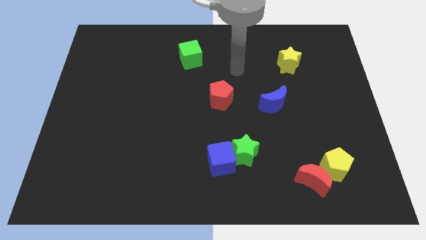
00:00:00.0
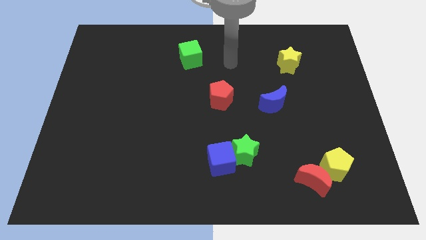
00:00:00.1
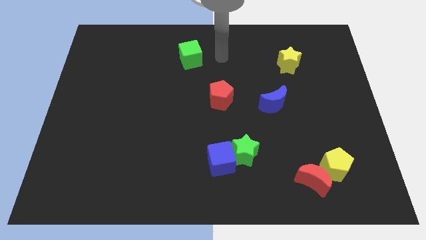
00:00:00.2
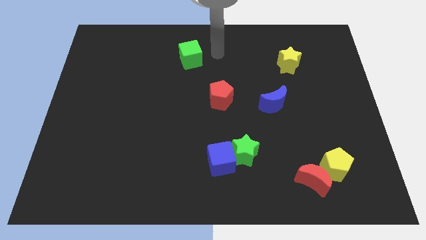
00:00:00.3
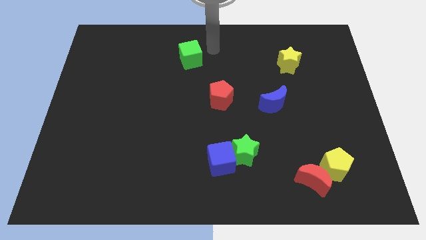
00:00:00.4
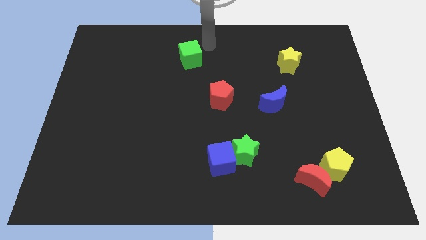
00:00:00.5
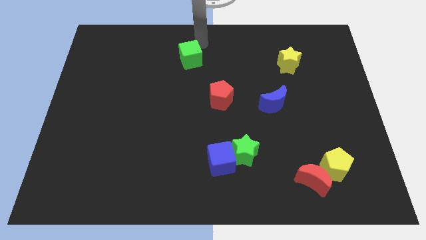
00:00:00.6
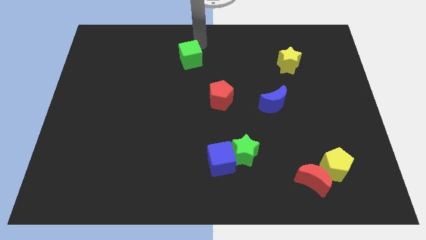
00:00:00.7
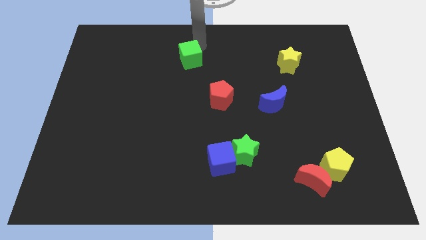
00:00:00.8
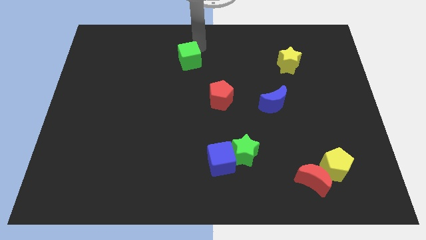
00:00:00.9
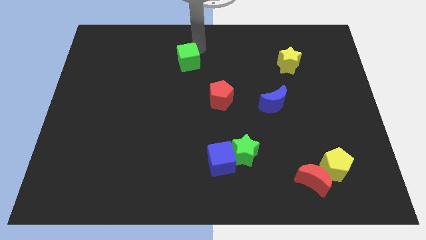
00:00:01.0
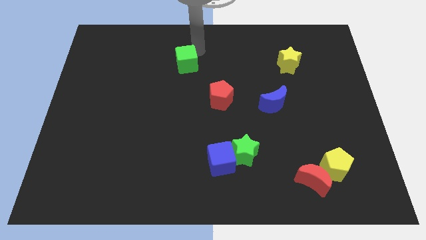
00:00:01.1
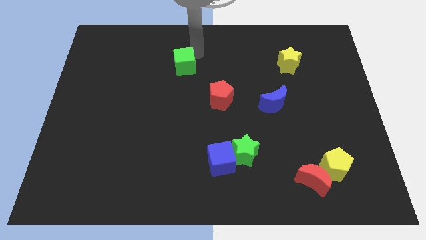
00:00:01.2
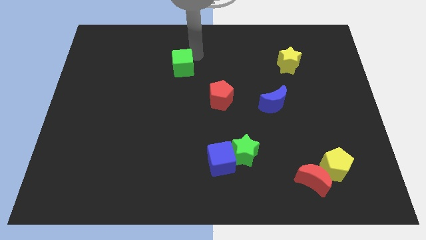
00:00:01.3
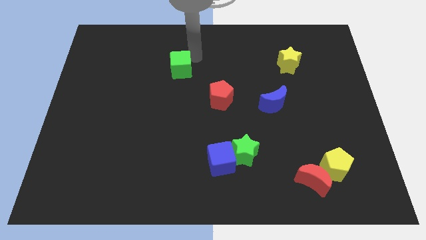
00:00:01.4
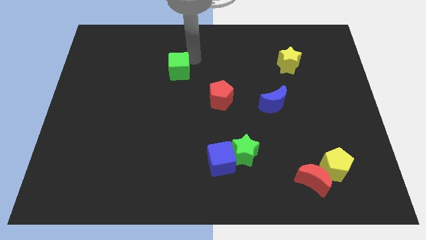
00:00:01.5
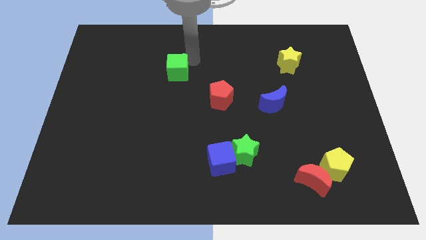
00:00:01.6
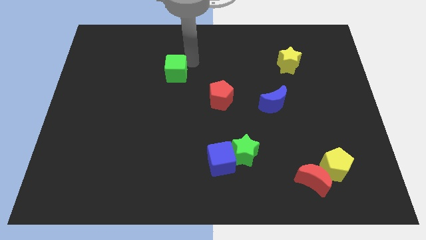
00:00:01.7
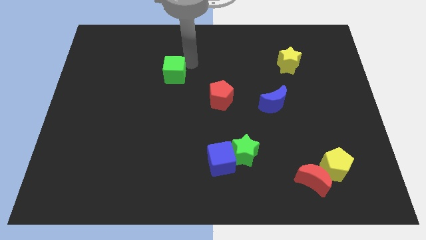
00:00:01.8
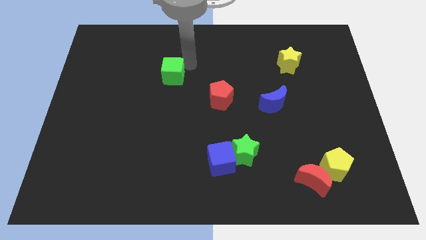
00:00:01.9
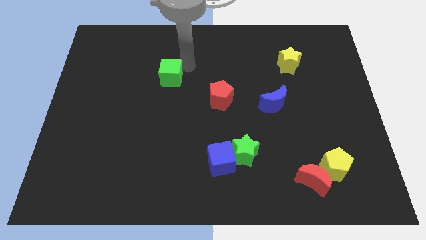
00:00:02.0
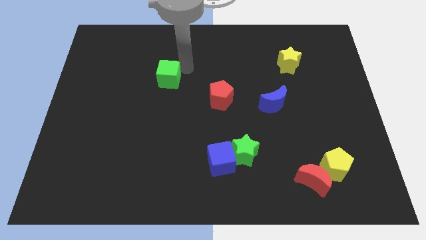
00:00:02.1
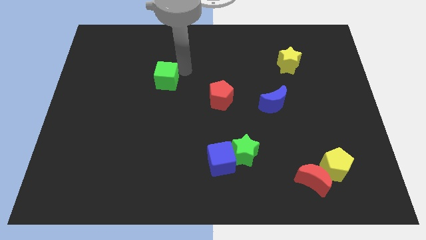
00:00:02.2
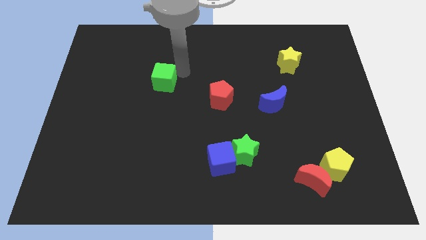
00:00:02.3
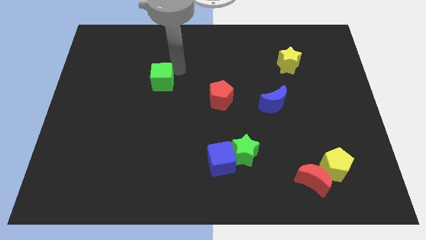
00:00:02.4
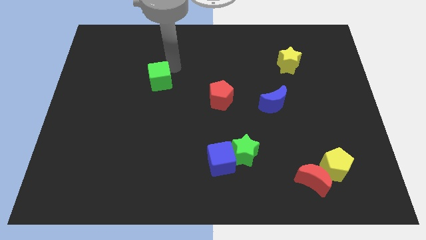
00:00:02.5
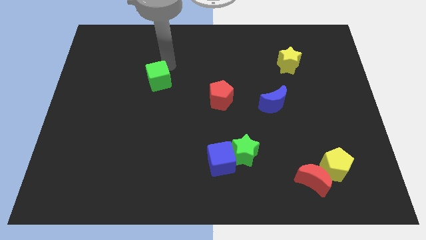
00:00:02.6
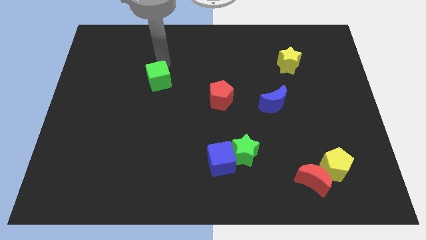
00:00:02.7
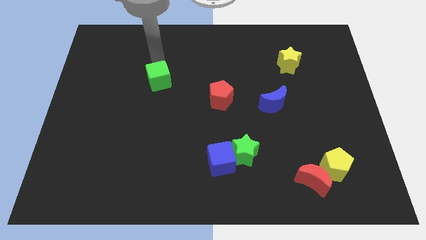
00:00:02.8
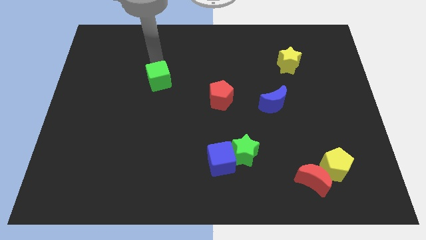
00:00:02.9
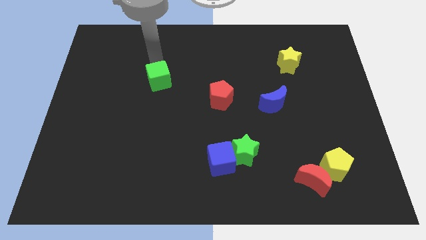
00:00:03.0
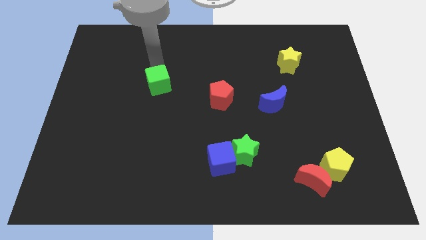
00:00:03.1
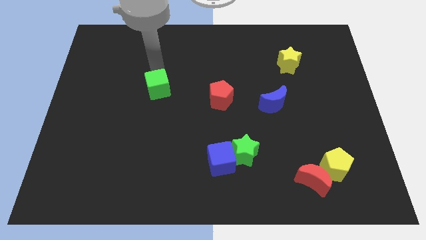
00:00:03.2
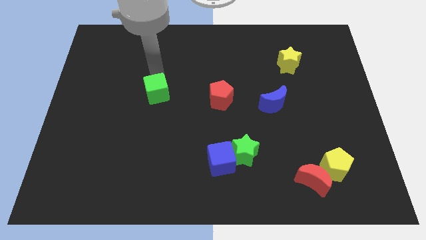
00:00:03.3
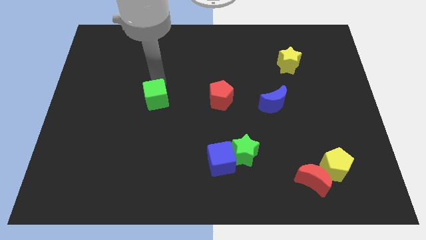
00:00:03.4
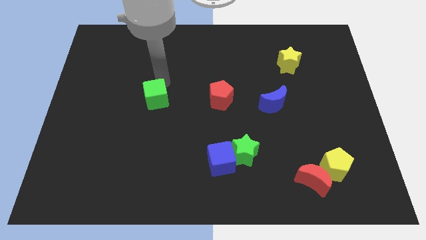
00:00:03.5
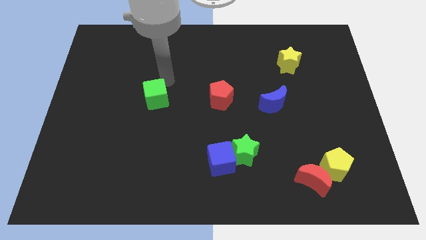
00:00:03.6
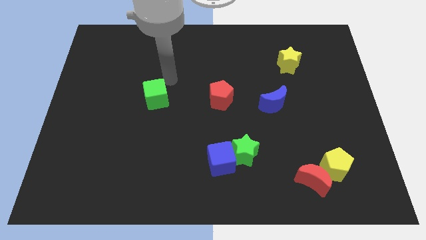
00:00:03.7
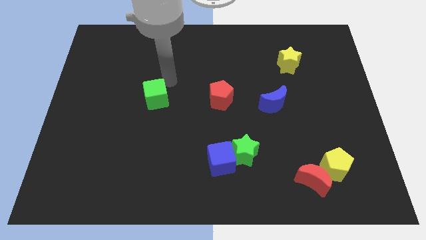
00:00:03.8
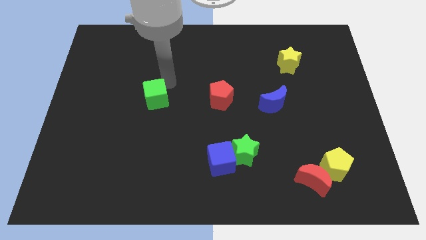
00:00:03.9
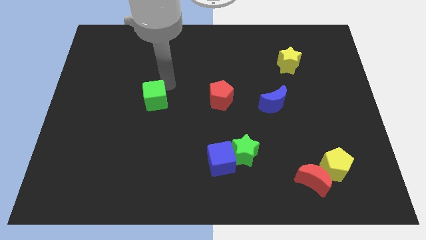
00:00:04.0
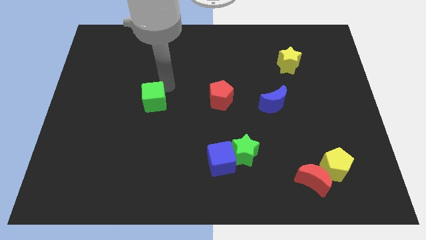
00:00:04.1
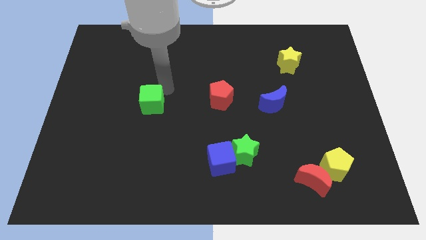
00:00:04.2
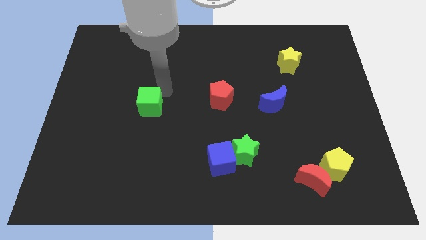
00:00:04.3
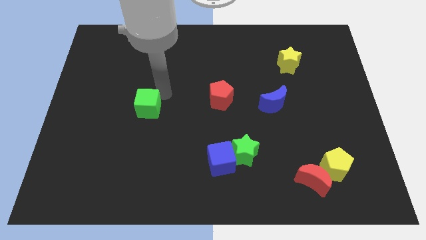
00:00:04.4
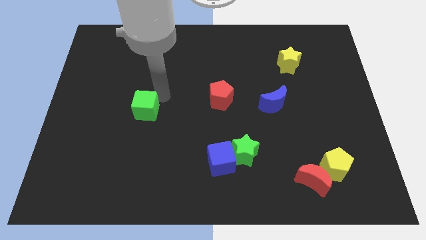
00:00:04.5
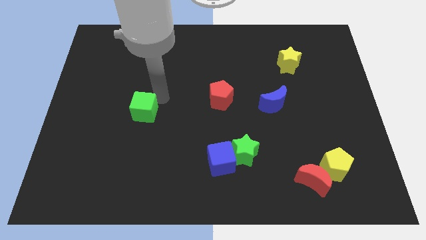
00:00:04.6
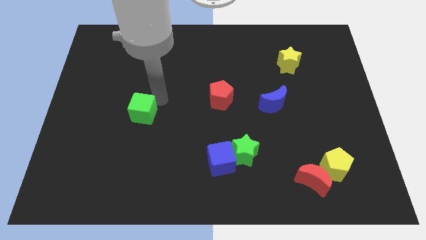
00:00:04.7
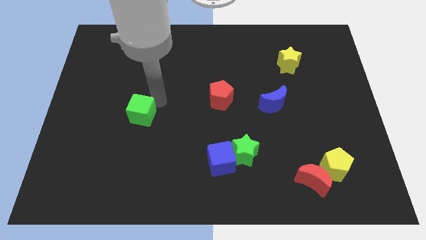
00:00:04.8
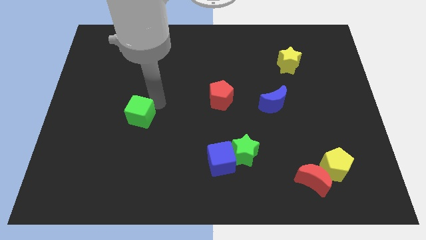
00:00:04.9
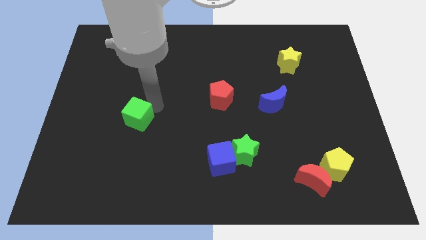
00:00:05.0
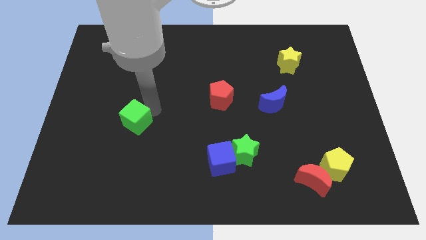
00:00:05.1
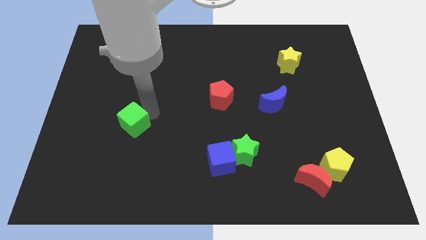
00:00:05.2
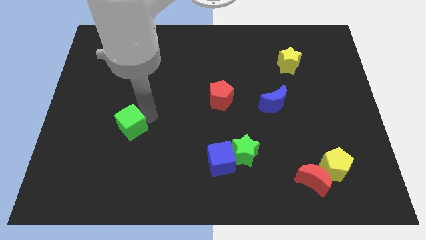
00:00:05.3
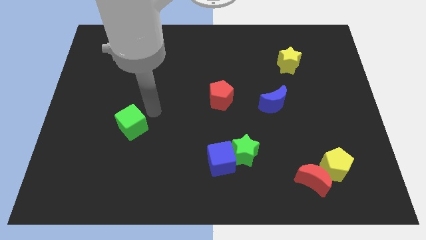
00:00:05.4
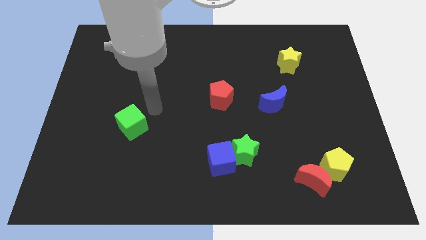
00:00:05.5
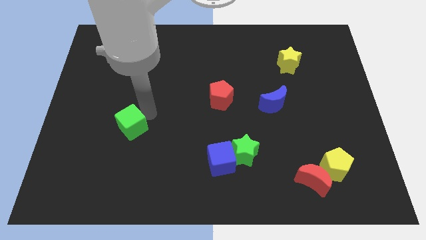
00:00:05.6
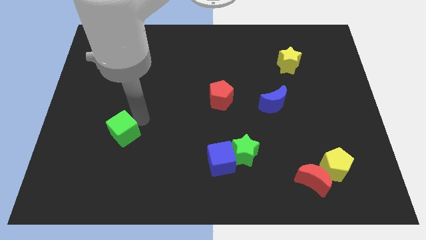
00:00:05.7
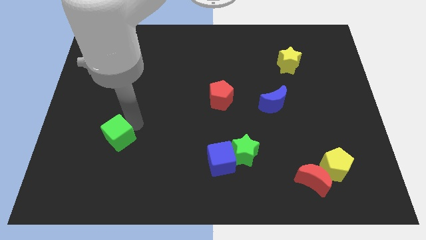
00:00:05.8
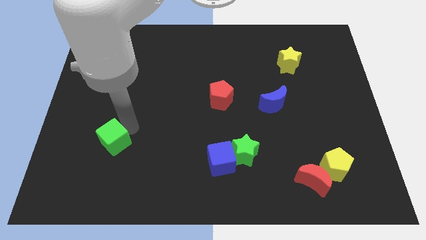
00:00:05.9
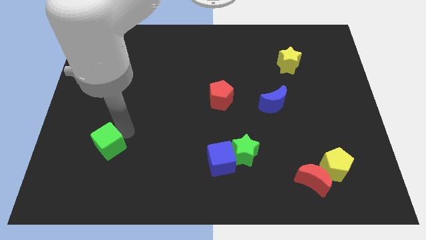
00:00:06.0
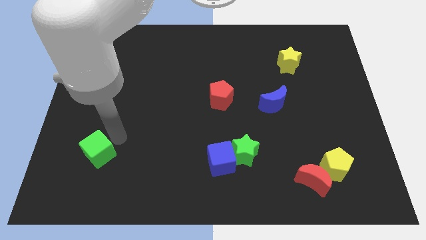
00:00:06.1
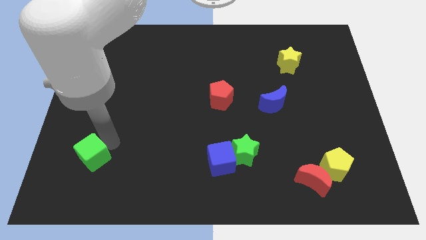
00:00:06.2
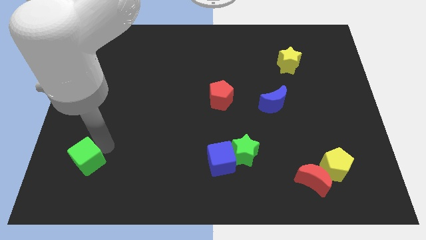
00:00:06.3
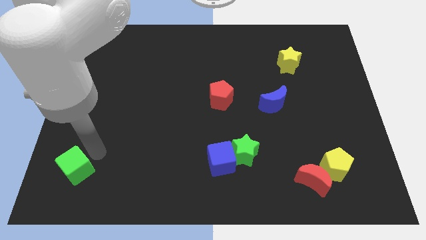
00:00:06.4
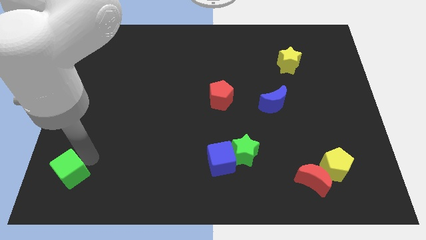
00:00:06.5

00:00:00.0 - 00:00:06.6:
move the green cube to the bottom left corner

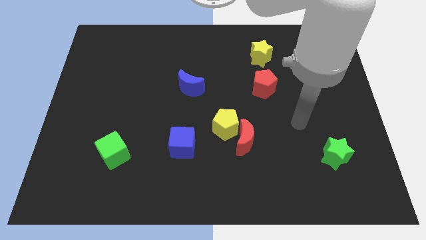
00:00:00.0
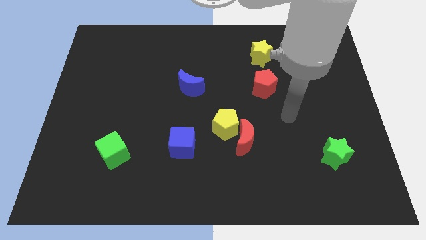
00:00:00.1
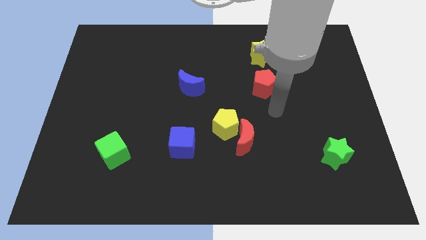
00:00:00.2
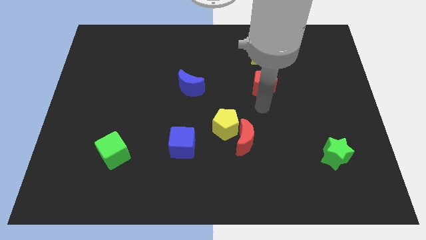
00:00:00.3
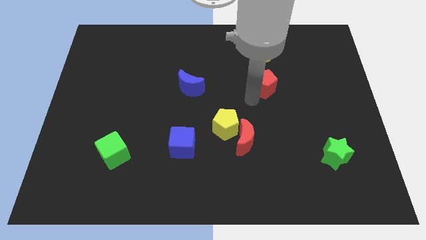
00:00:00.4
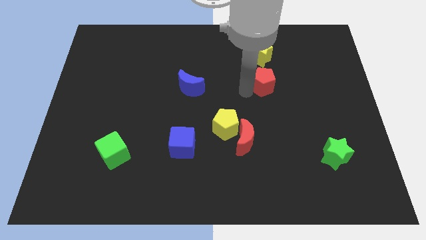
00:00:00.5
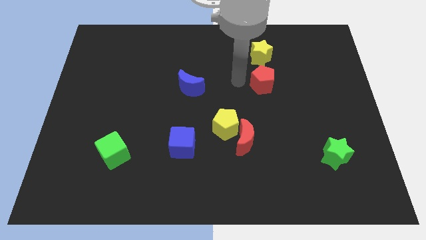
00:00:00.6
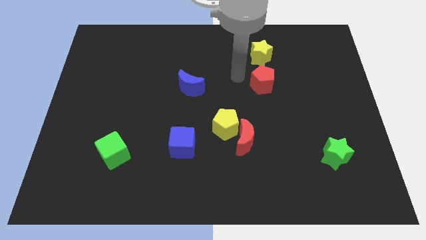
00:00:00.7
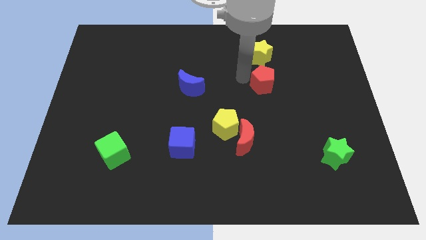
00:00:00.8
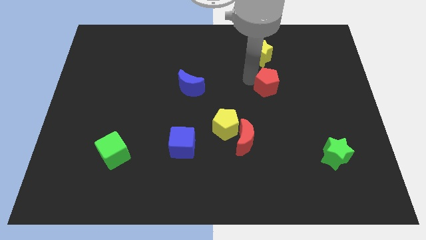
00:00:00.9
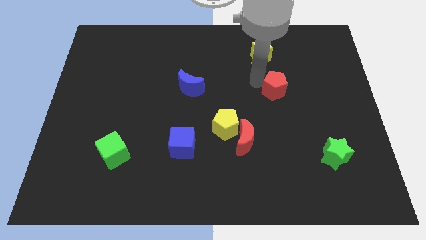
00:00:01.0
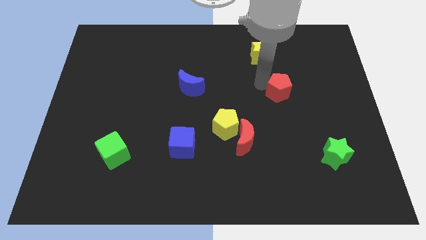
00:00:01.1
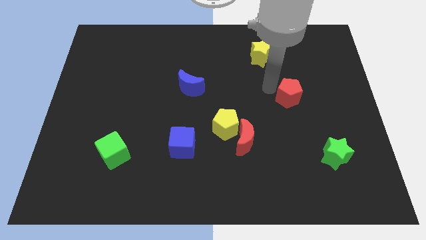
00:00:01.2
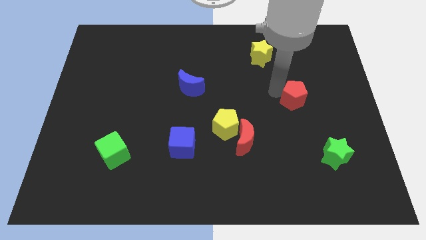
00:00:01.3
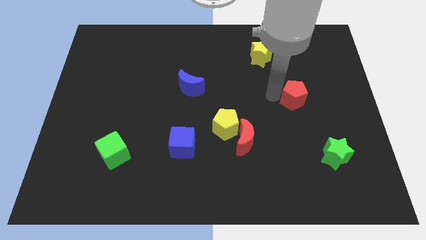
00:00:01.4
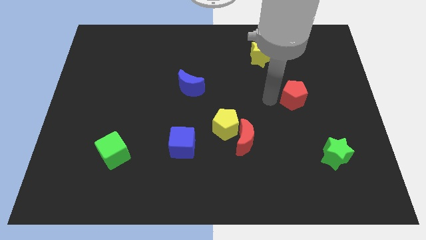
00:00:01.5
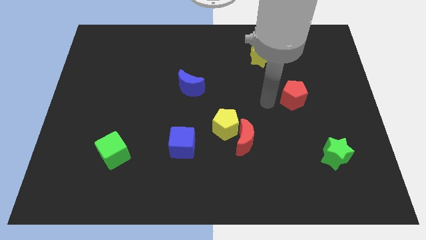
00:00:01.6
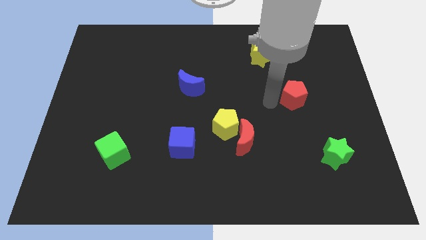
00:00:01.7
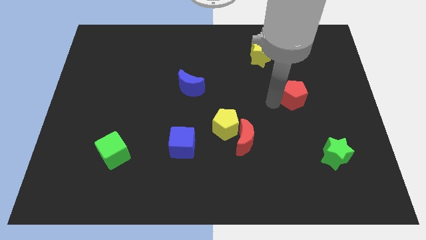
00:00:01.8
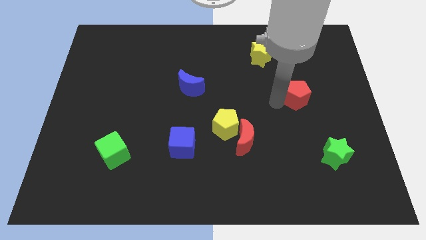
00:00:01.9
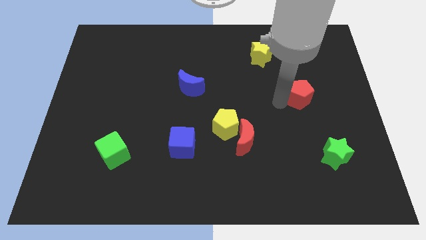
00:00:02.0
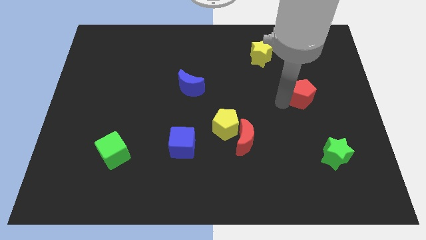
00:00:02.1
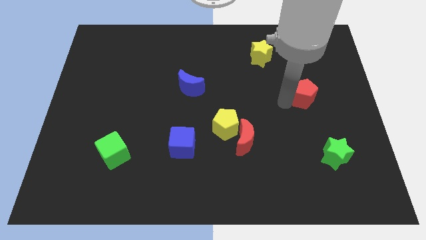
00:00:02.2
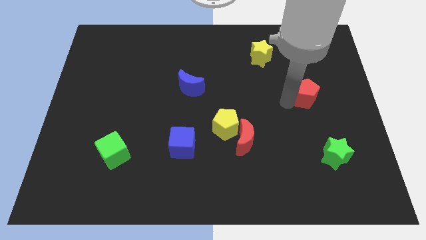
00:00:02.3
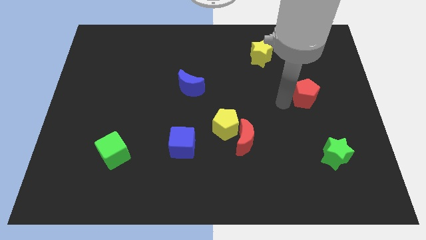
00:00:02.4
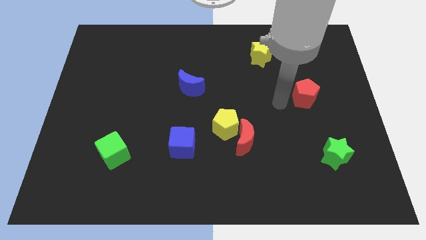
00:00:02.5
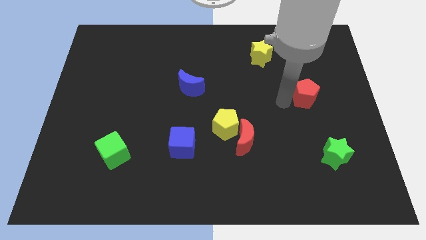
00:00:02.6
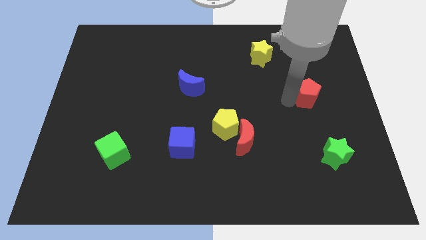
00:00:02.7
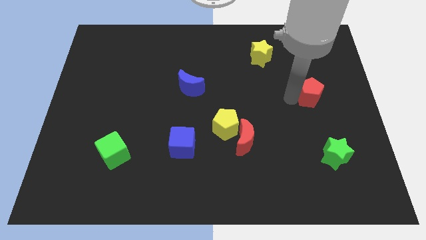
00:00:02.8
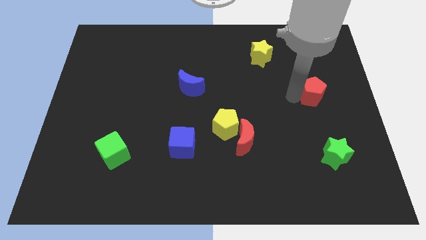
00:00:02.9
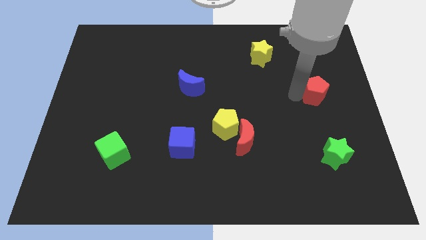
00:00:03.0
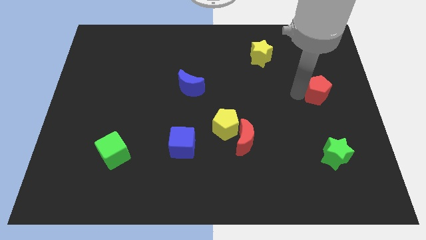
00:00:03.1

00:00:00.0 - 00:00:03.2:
slide the red pentagon to the right side of the board
